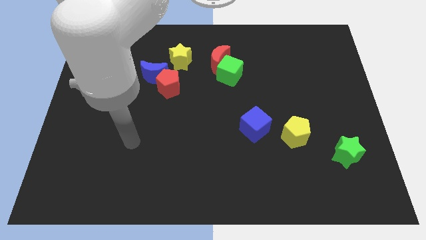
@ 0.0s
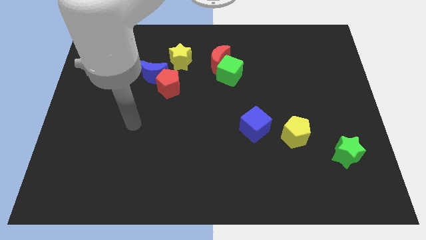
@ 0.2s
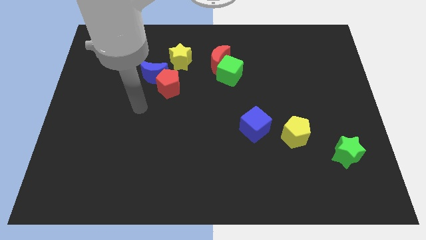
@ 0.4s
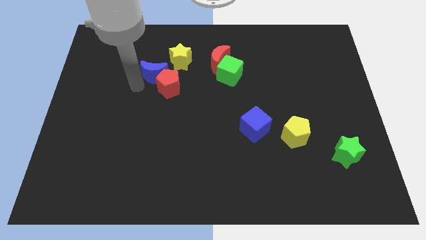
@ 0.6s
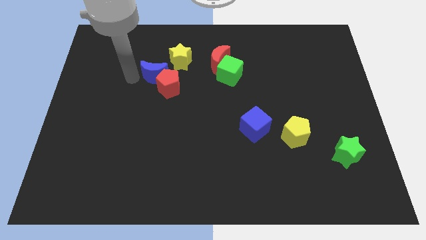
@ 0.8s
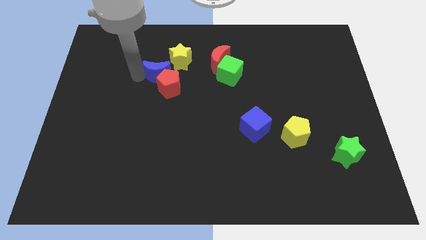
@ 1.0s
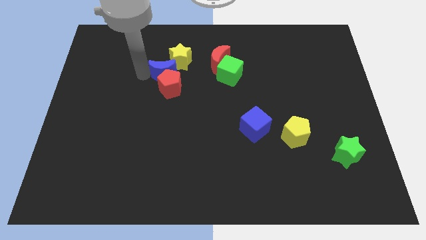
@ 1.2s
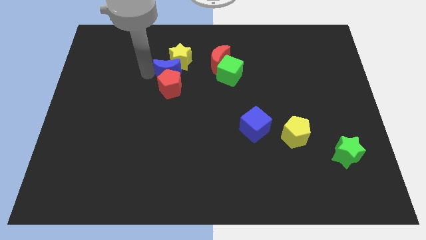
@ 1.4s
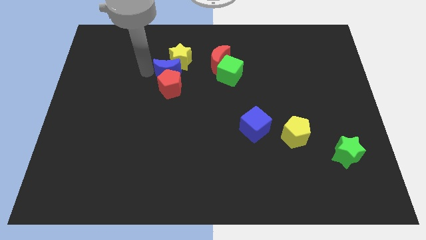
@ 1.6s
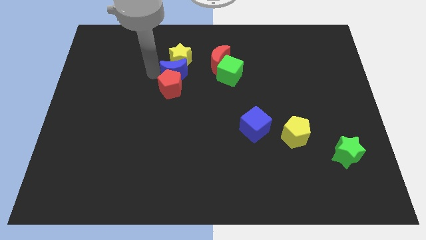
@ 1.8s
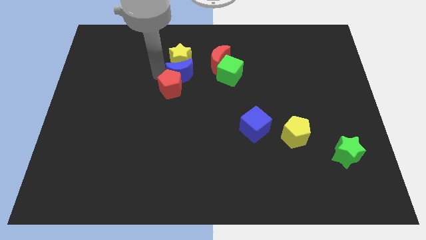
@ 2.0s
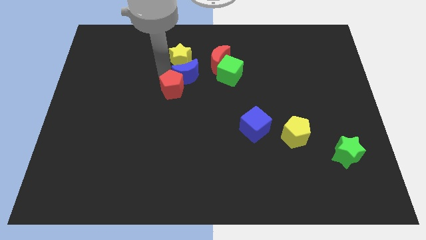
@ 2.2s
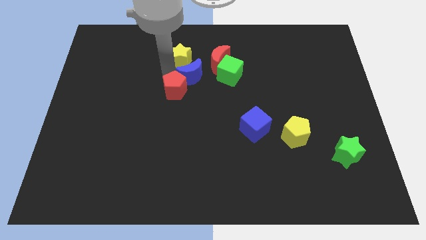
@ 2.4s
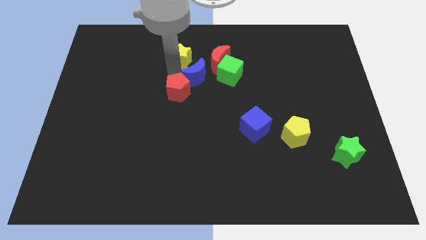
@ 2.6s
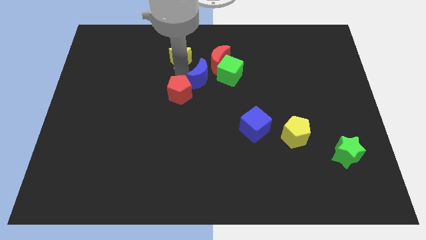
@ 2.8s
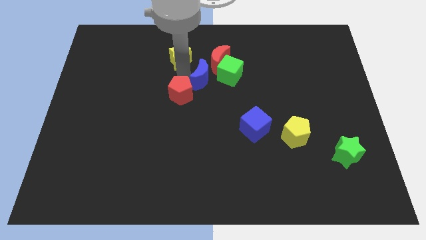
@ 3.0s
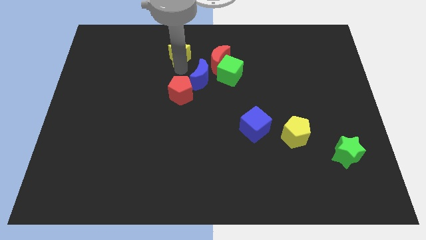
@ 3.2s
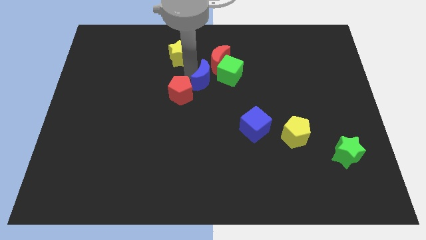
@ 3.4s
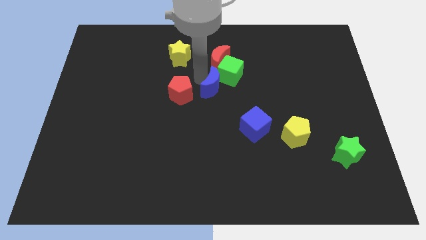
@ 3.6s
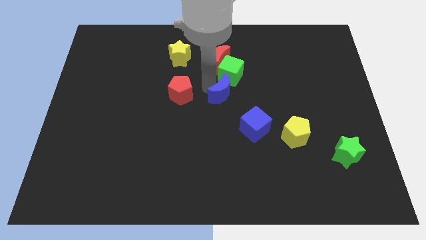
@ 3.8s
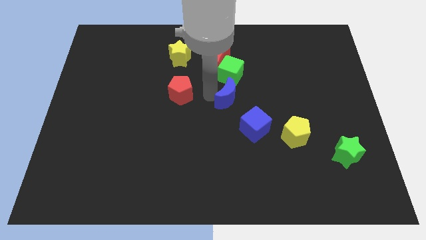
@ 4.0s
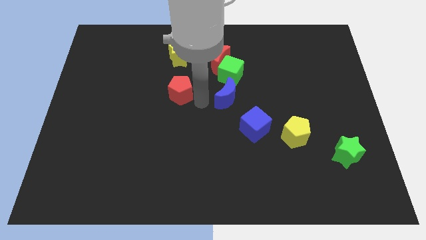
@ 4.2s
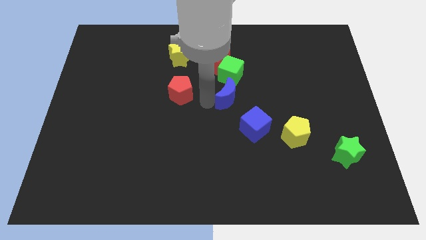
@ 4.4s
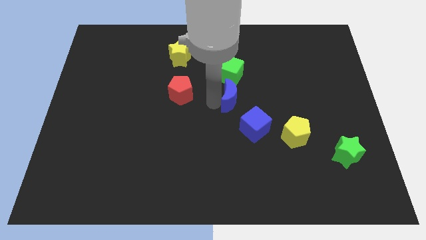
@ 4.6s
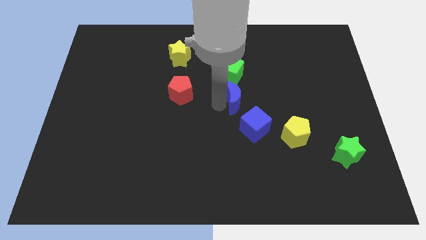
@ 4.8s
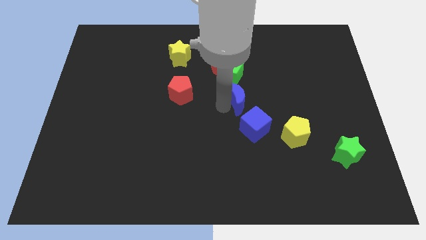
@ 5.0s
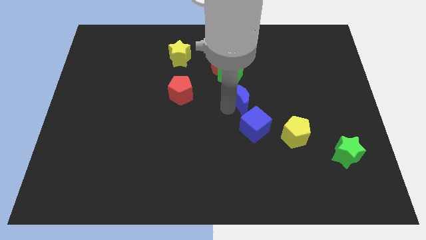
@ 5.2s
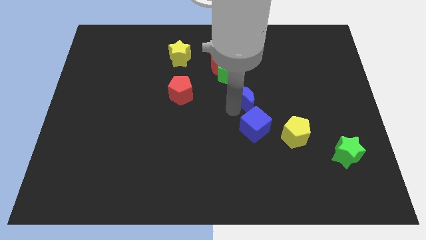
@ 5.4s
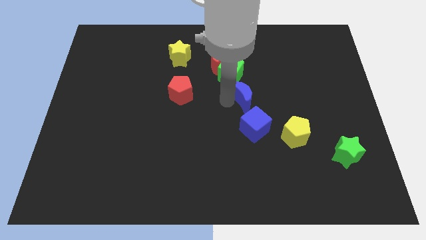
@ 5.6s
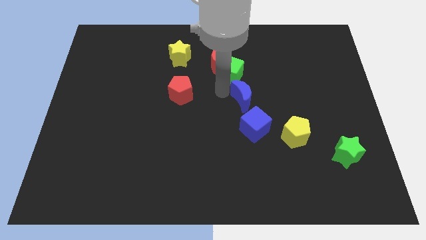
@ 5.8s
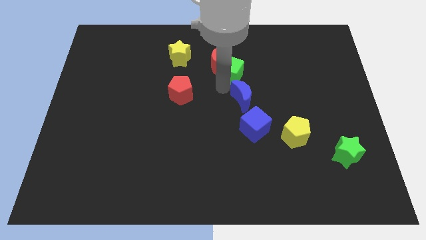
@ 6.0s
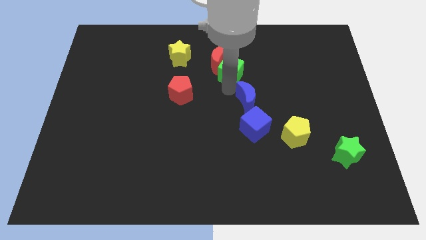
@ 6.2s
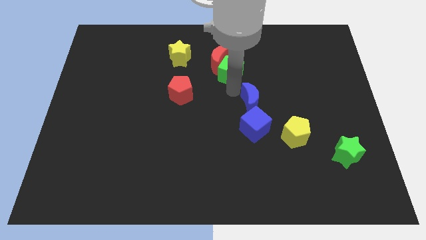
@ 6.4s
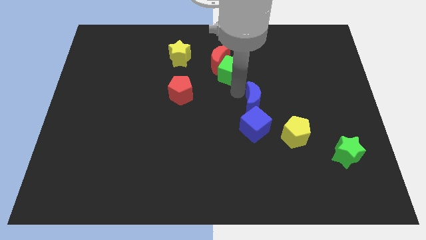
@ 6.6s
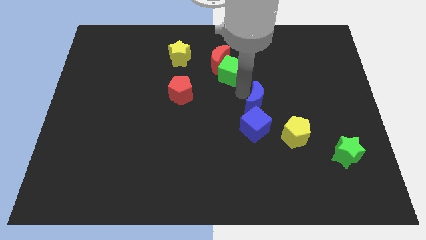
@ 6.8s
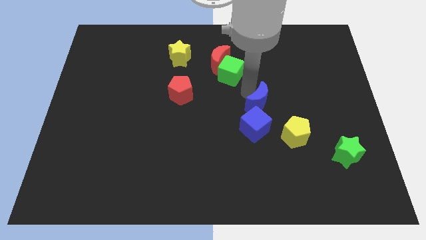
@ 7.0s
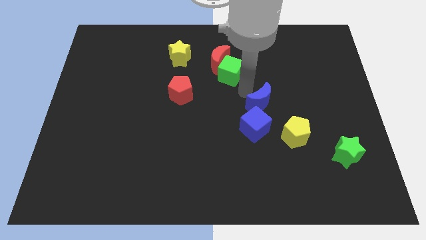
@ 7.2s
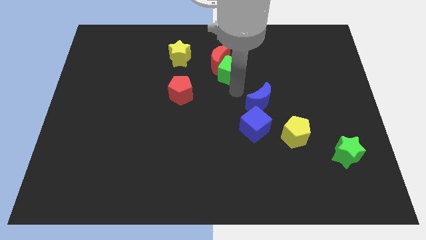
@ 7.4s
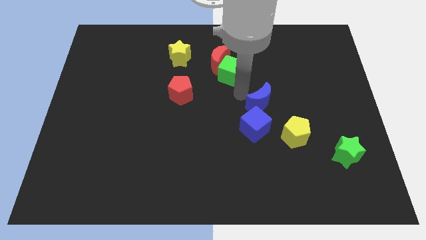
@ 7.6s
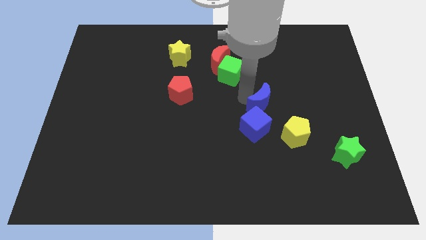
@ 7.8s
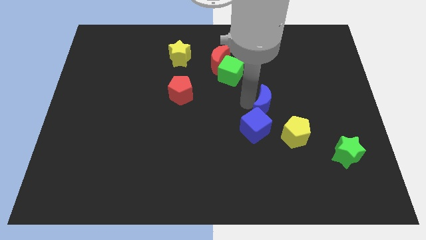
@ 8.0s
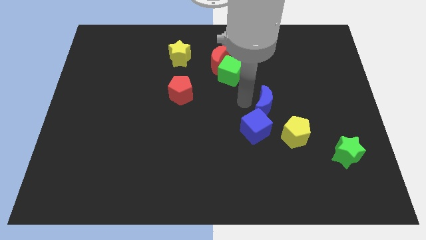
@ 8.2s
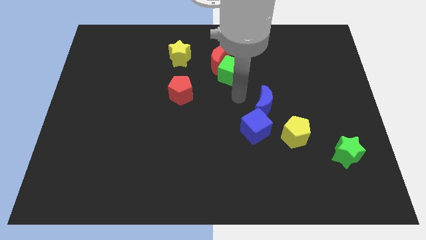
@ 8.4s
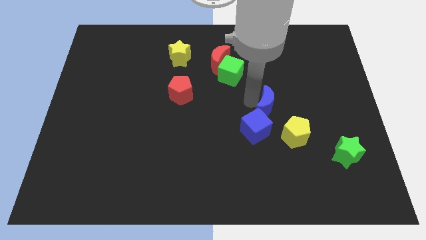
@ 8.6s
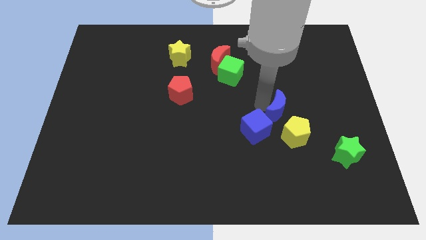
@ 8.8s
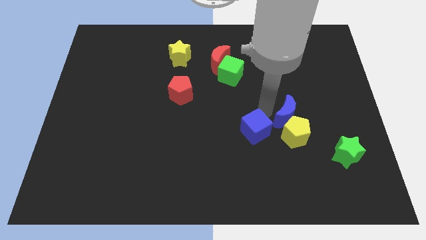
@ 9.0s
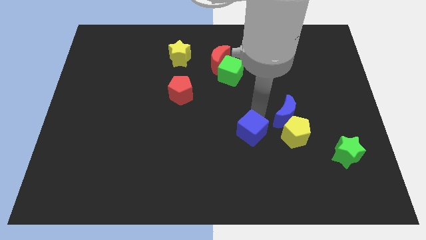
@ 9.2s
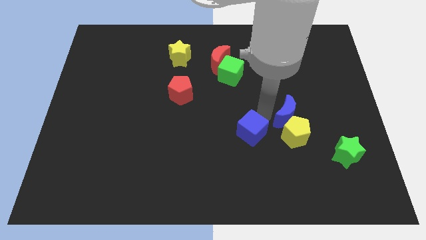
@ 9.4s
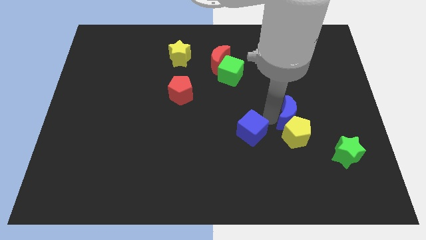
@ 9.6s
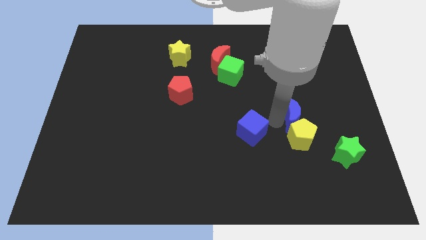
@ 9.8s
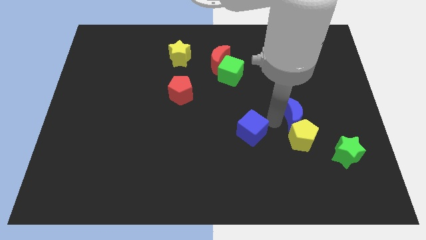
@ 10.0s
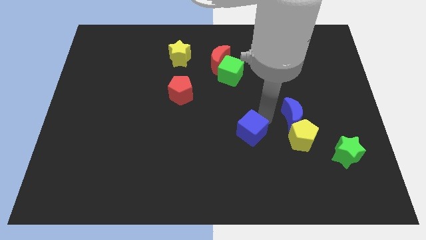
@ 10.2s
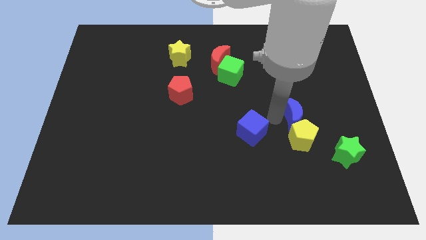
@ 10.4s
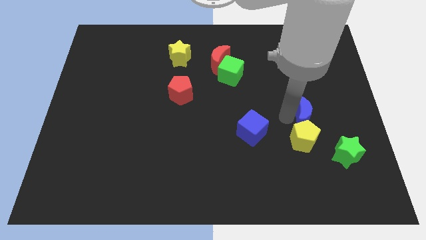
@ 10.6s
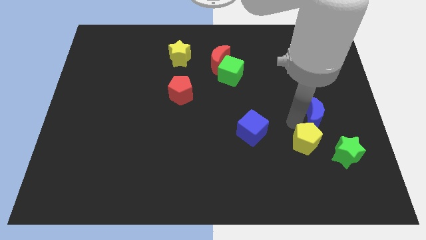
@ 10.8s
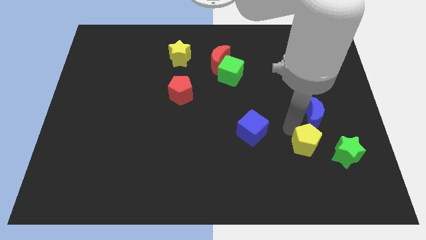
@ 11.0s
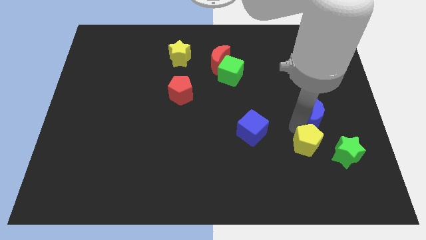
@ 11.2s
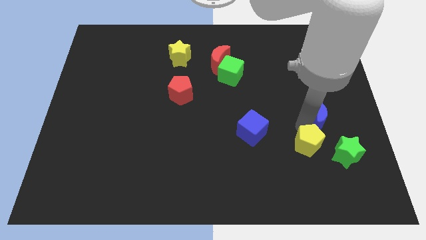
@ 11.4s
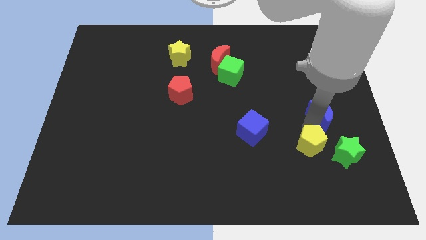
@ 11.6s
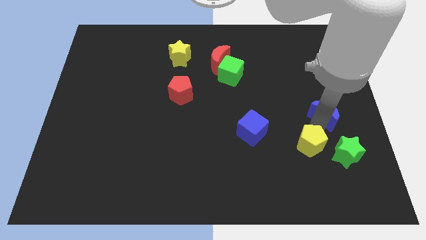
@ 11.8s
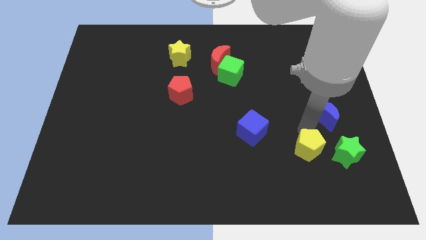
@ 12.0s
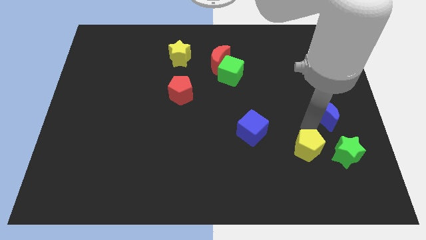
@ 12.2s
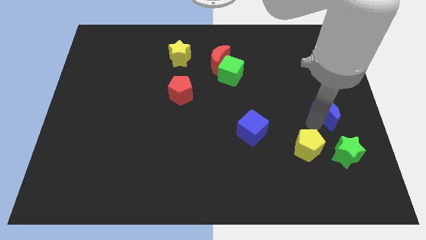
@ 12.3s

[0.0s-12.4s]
move the blue moon to the center right
